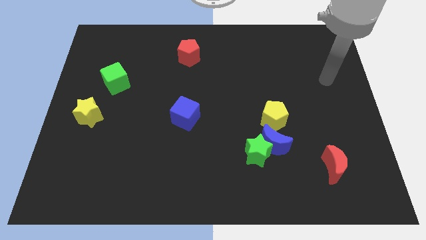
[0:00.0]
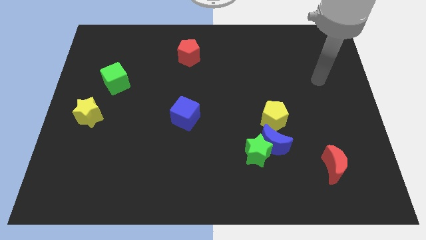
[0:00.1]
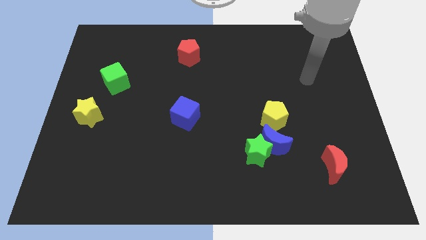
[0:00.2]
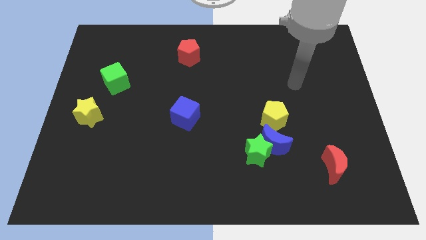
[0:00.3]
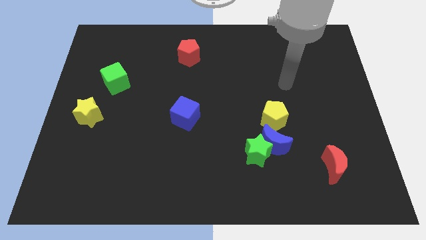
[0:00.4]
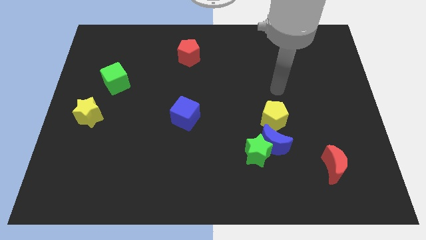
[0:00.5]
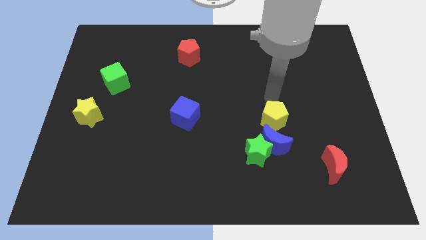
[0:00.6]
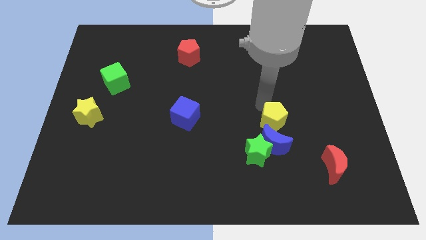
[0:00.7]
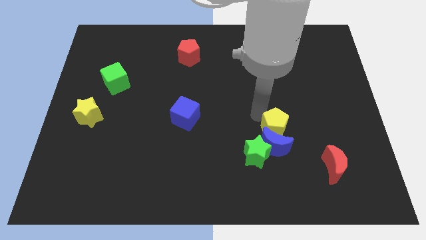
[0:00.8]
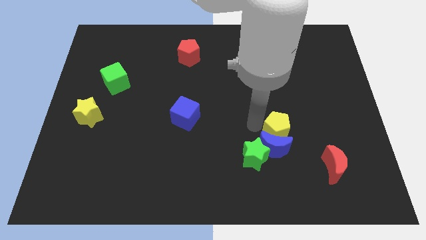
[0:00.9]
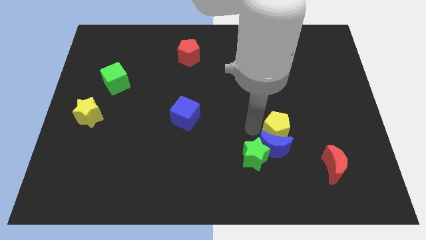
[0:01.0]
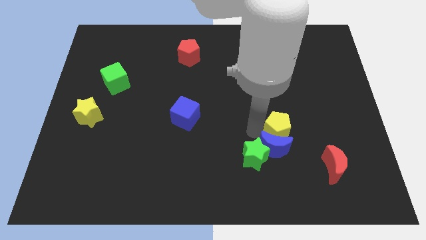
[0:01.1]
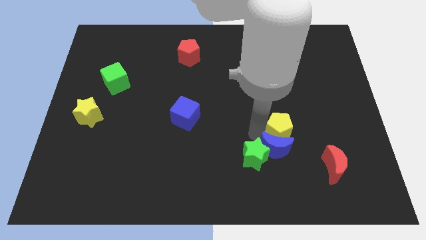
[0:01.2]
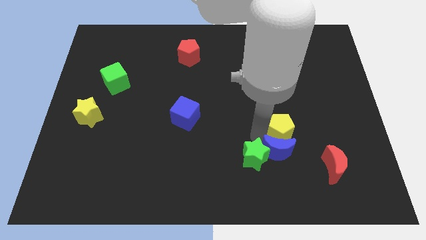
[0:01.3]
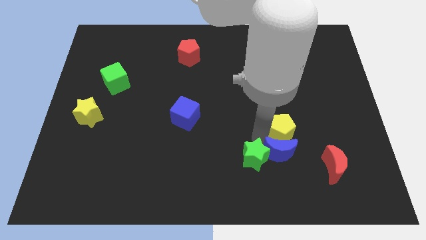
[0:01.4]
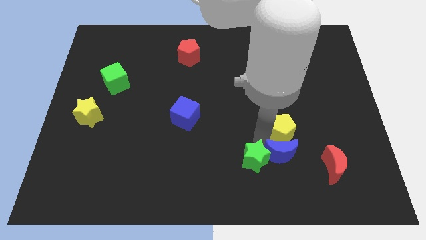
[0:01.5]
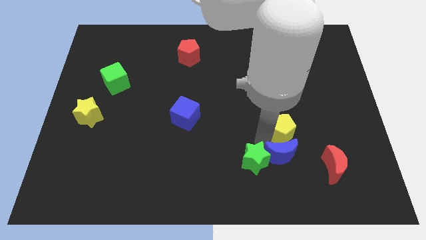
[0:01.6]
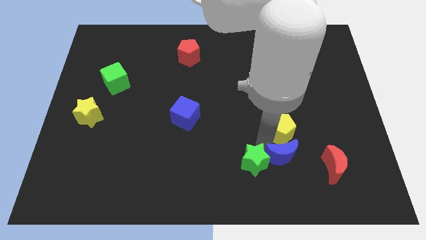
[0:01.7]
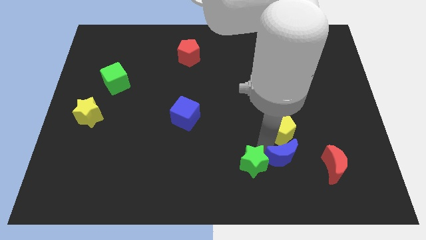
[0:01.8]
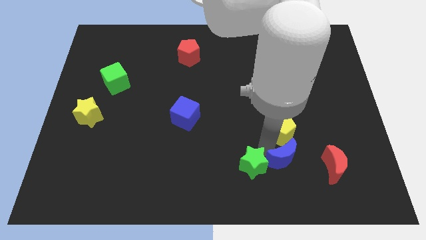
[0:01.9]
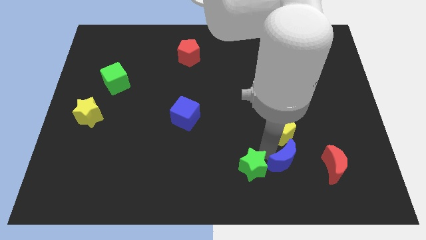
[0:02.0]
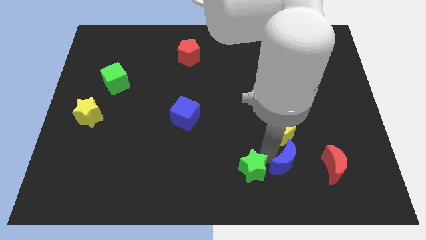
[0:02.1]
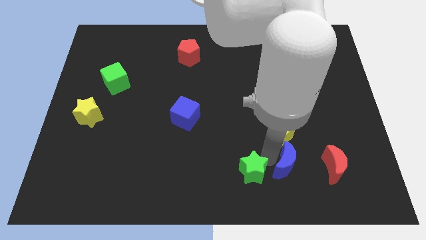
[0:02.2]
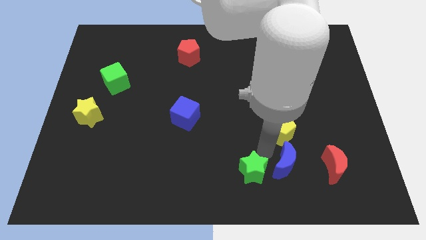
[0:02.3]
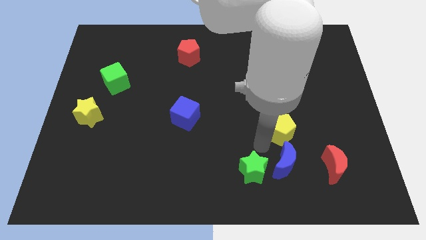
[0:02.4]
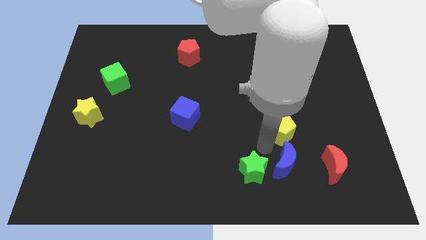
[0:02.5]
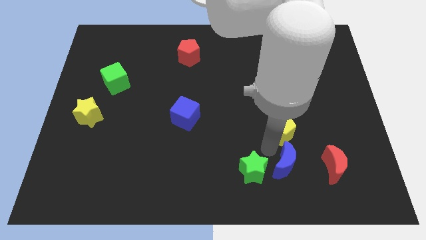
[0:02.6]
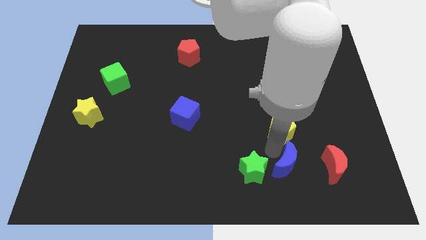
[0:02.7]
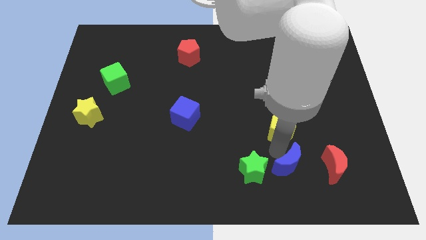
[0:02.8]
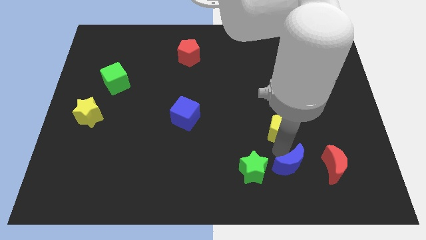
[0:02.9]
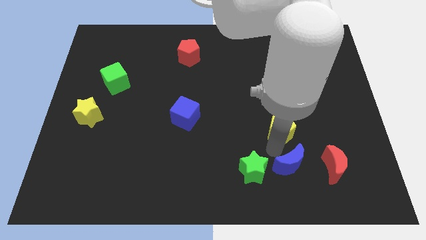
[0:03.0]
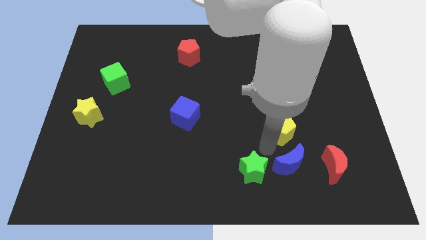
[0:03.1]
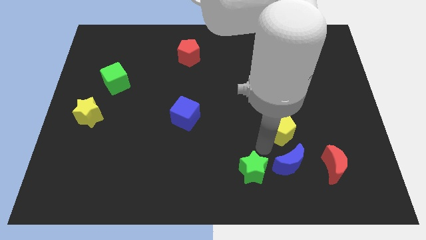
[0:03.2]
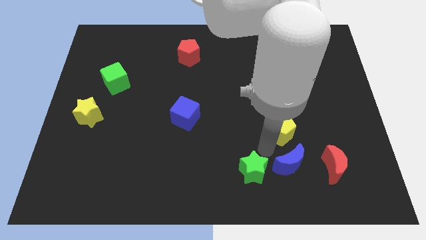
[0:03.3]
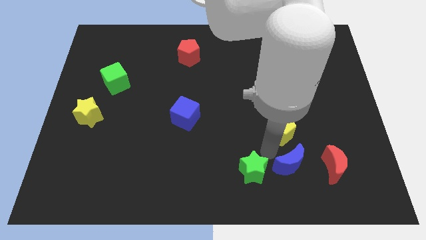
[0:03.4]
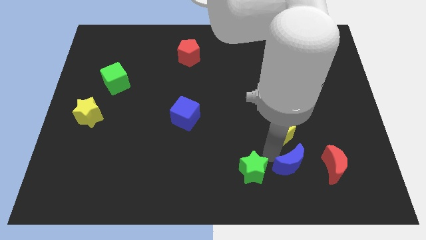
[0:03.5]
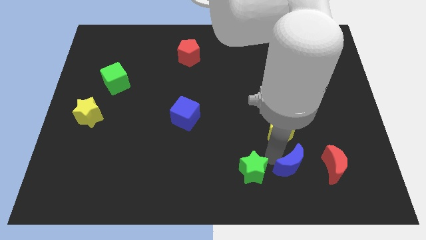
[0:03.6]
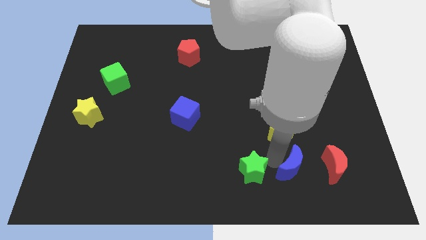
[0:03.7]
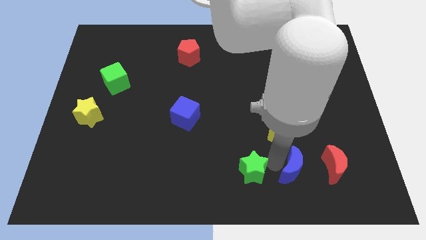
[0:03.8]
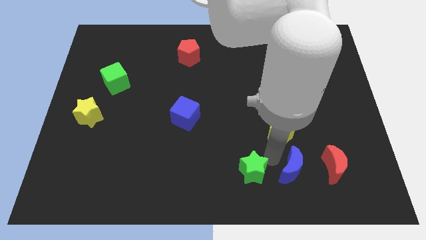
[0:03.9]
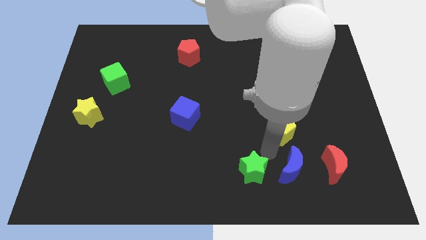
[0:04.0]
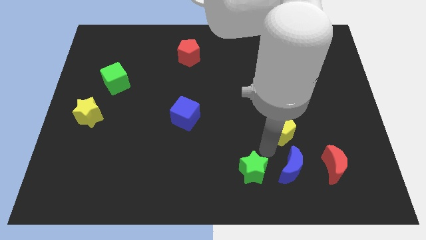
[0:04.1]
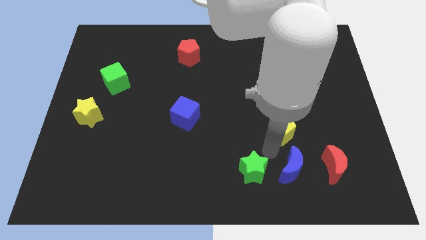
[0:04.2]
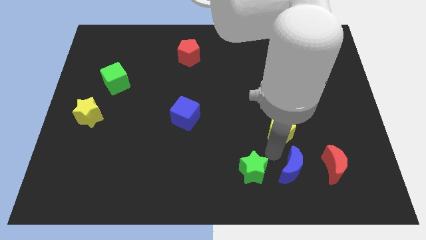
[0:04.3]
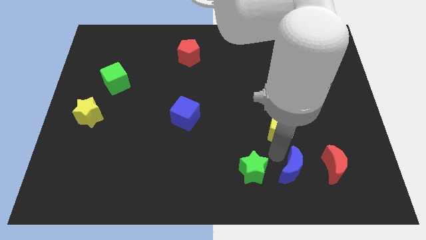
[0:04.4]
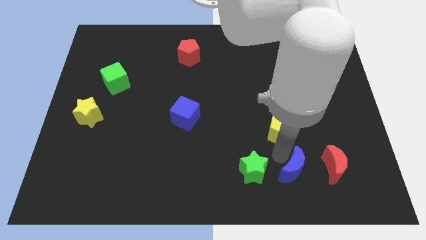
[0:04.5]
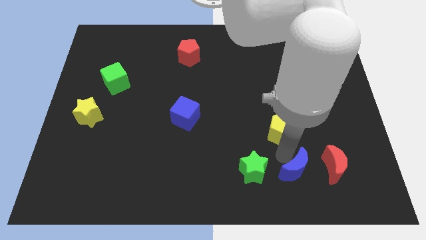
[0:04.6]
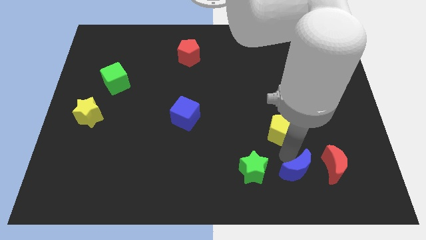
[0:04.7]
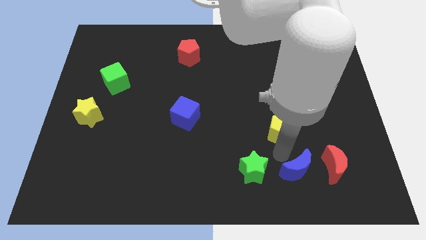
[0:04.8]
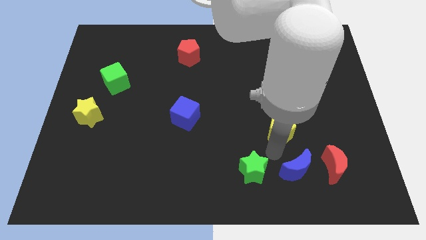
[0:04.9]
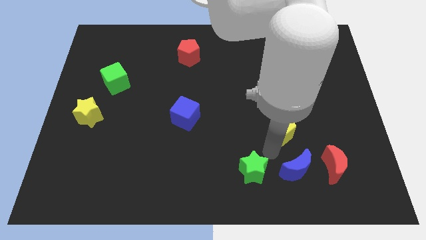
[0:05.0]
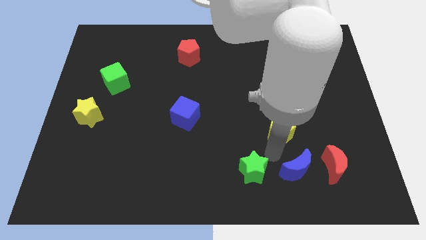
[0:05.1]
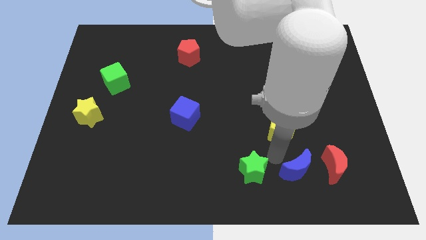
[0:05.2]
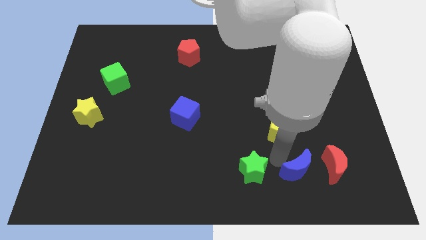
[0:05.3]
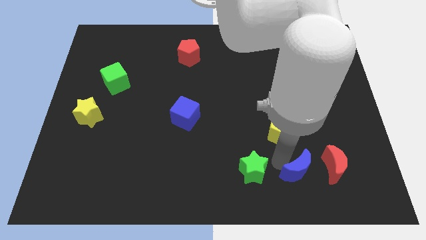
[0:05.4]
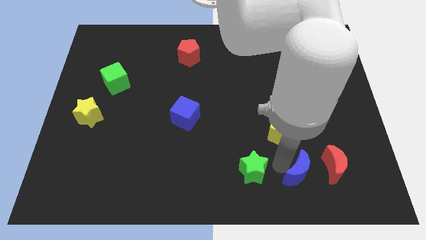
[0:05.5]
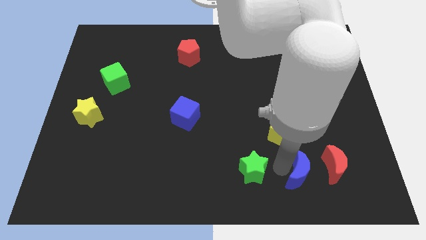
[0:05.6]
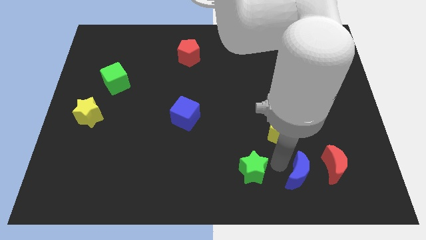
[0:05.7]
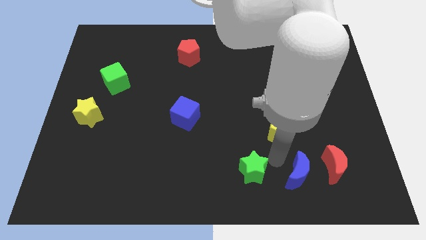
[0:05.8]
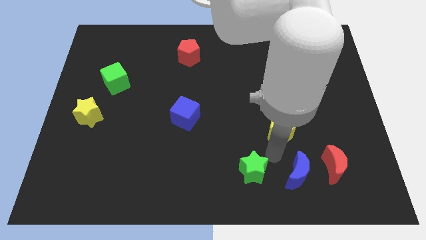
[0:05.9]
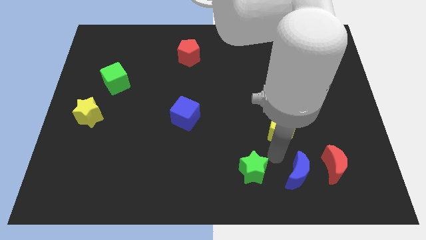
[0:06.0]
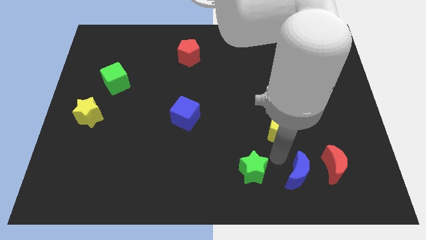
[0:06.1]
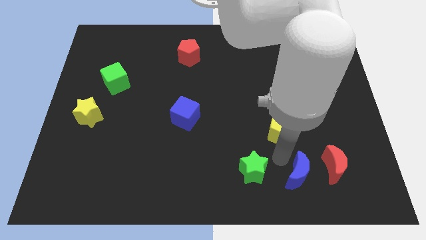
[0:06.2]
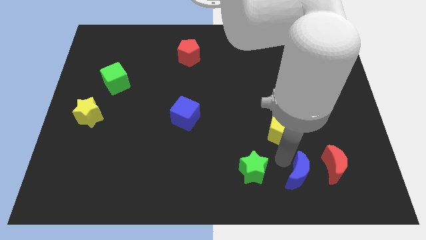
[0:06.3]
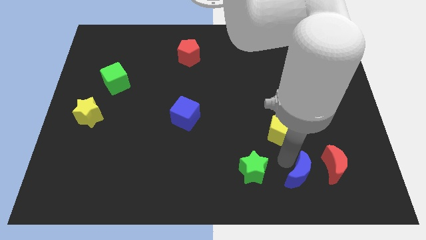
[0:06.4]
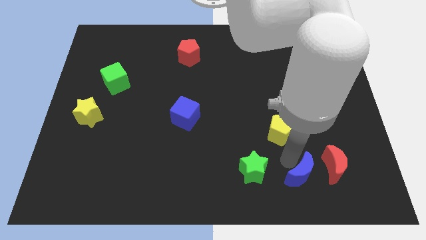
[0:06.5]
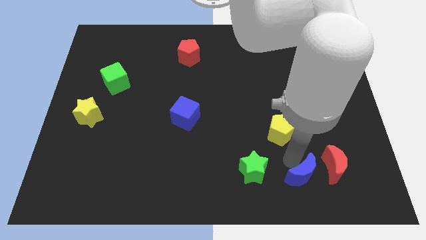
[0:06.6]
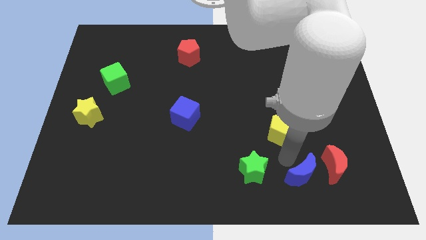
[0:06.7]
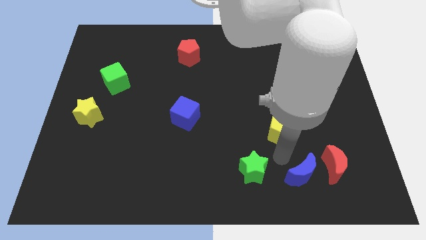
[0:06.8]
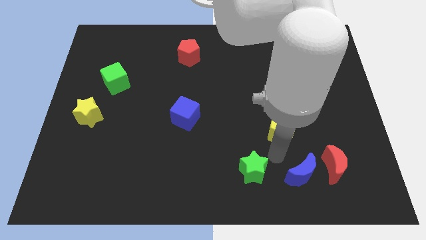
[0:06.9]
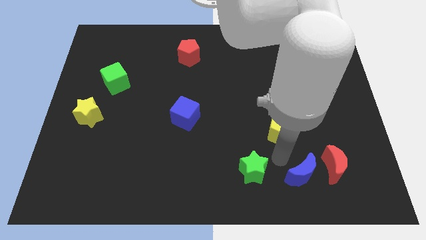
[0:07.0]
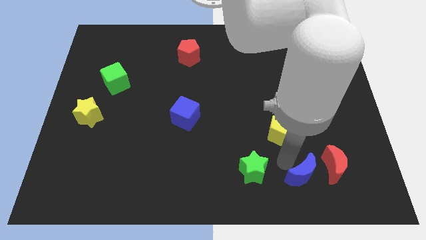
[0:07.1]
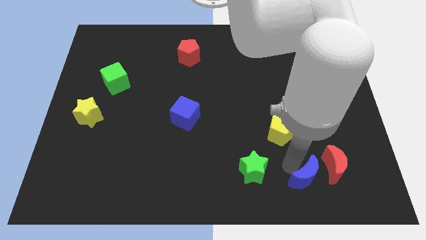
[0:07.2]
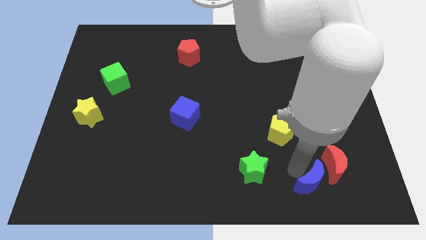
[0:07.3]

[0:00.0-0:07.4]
separate the blue moon from the green star and yellow pentagon

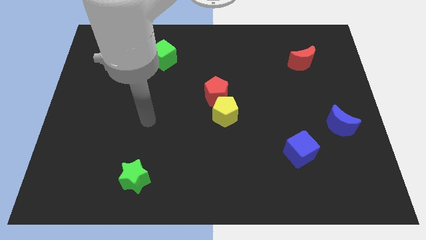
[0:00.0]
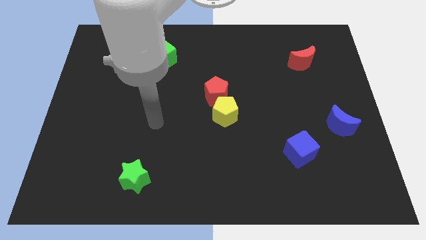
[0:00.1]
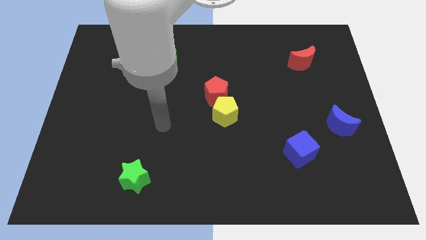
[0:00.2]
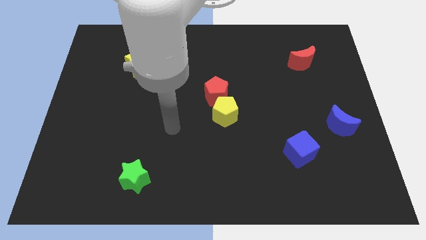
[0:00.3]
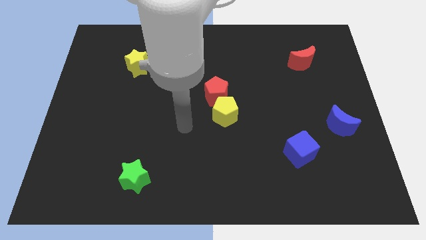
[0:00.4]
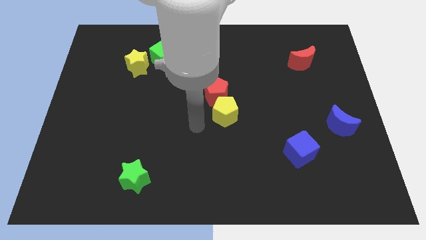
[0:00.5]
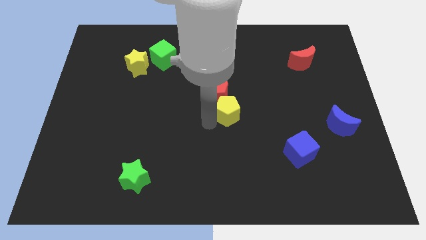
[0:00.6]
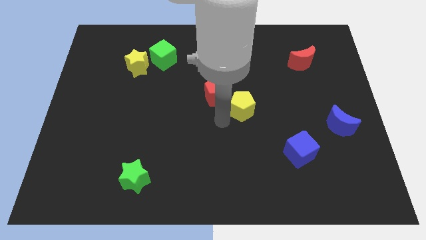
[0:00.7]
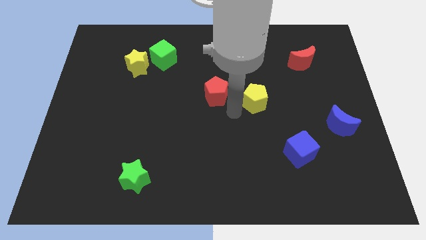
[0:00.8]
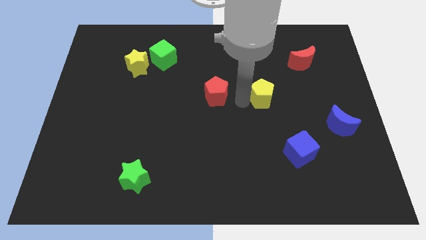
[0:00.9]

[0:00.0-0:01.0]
move the red pentagon away from the yellow pentagon

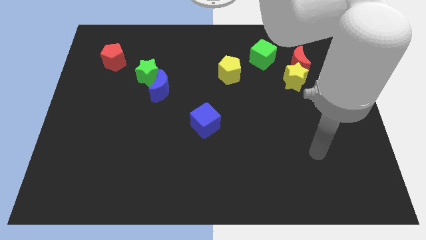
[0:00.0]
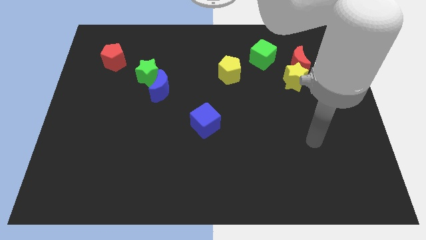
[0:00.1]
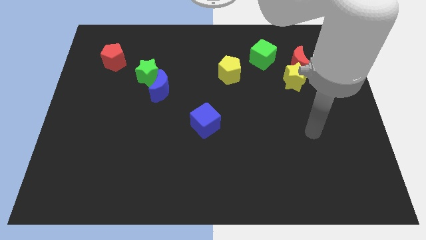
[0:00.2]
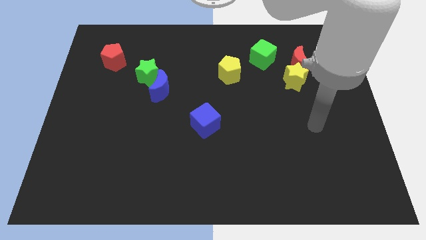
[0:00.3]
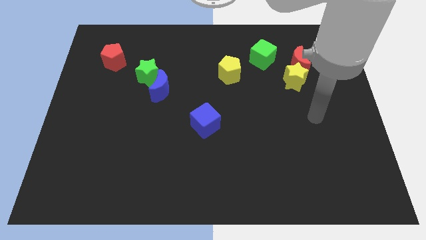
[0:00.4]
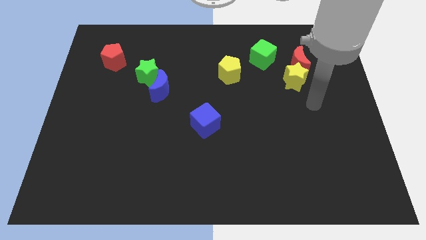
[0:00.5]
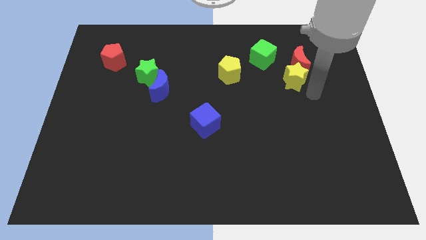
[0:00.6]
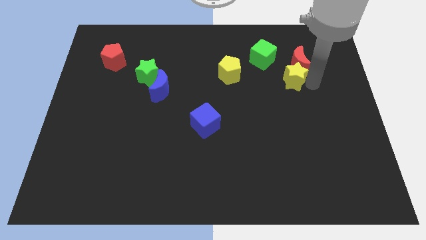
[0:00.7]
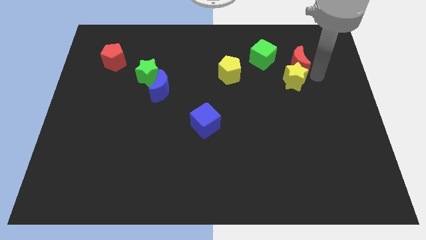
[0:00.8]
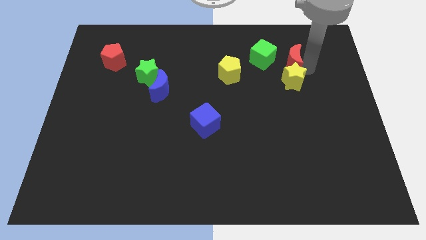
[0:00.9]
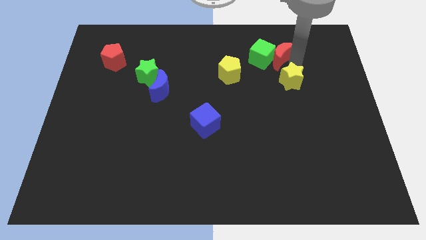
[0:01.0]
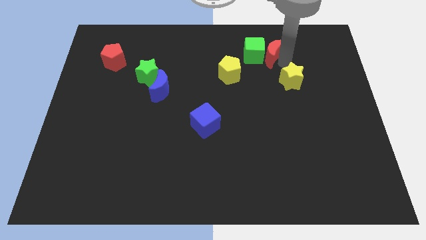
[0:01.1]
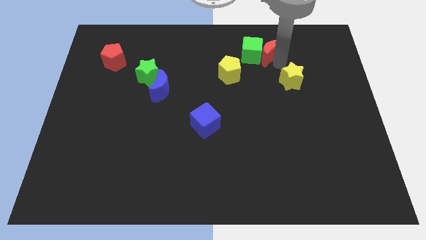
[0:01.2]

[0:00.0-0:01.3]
move the yellow star away from the red moon
